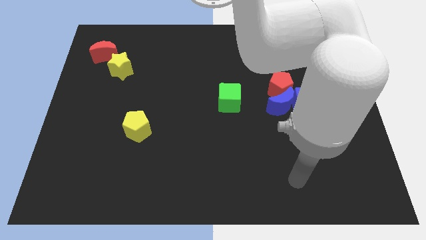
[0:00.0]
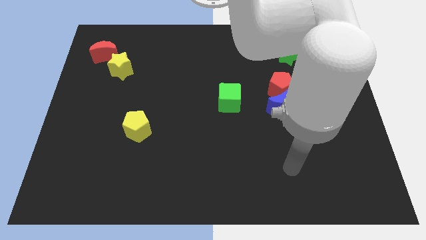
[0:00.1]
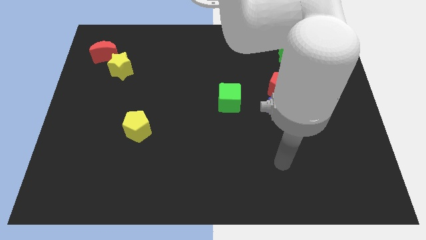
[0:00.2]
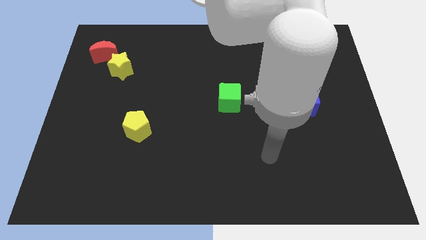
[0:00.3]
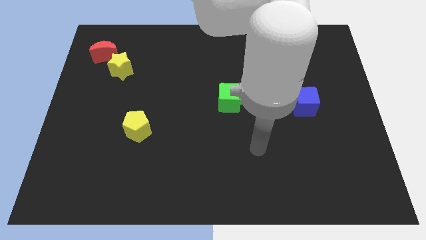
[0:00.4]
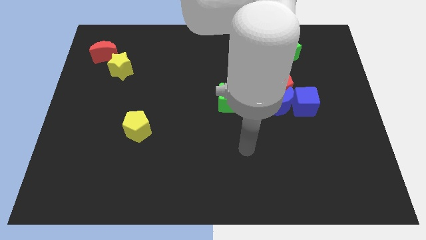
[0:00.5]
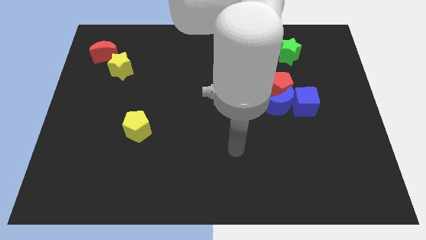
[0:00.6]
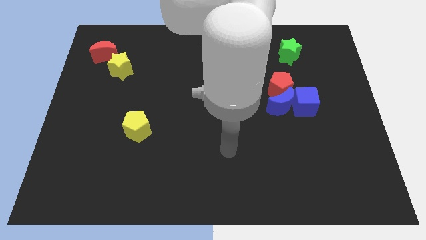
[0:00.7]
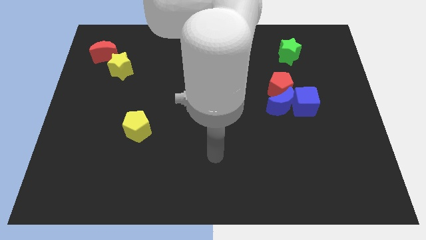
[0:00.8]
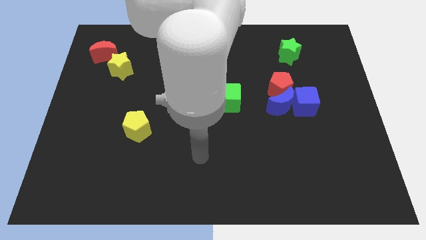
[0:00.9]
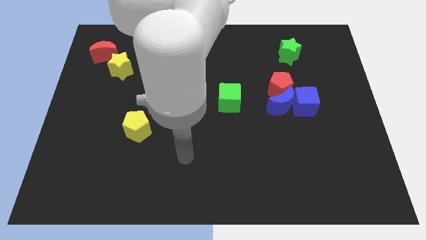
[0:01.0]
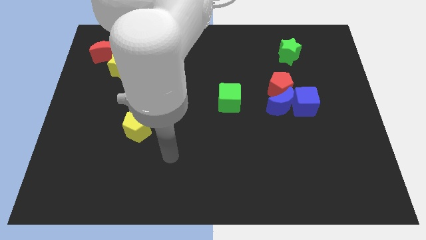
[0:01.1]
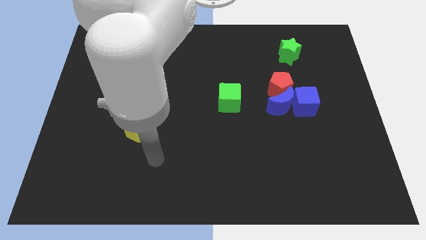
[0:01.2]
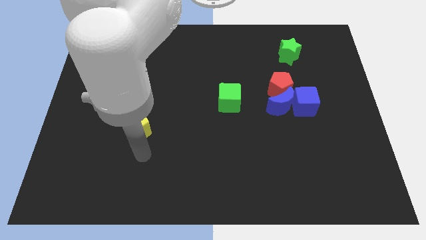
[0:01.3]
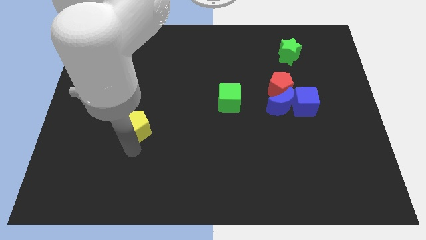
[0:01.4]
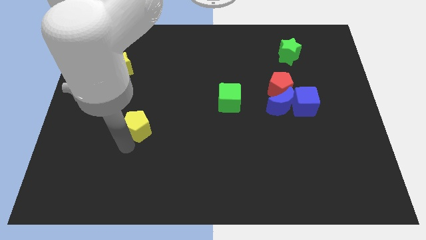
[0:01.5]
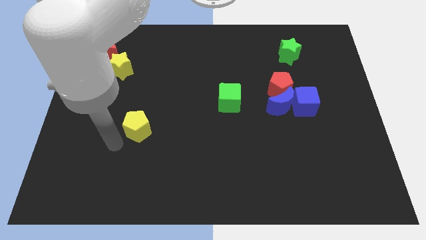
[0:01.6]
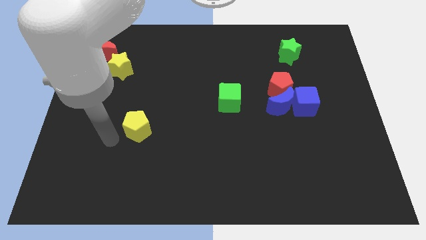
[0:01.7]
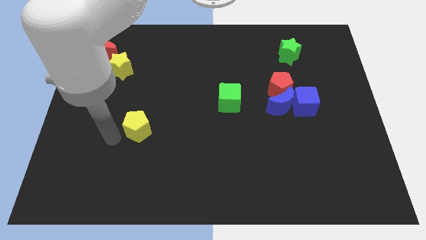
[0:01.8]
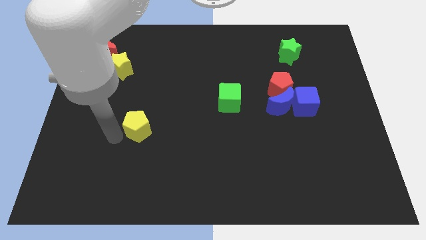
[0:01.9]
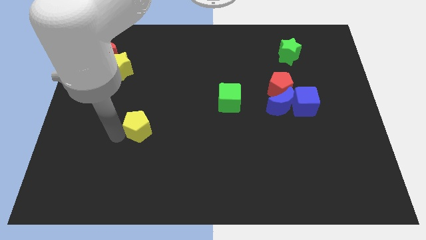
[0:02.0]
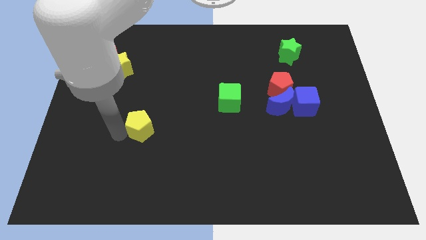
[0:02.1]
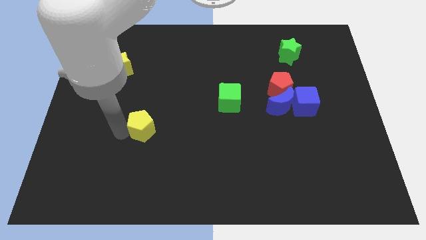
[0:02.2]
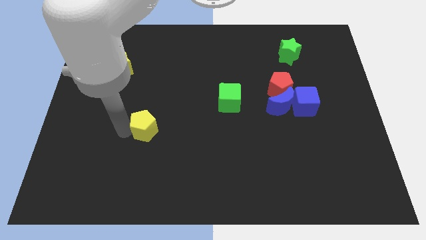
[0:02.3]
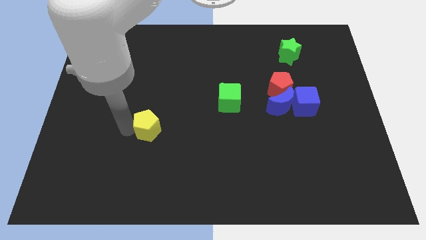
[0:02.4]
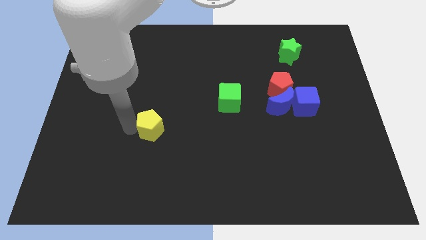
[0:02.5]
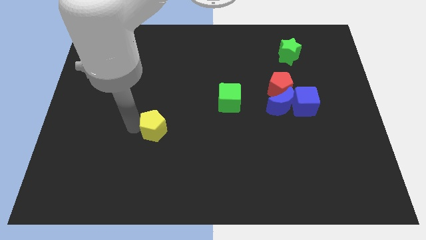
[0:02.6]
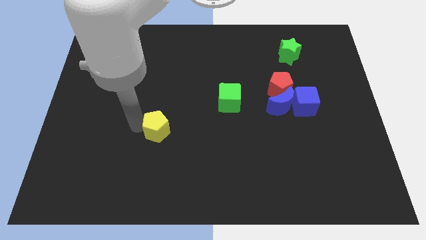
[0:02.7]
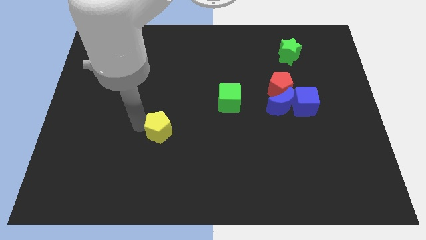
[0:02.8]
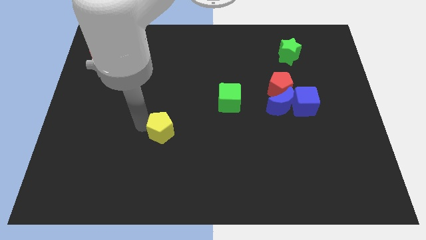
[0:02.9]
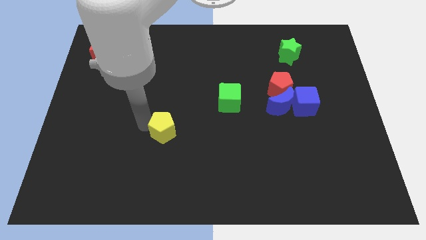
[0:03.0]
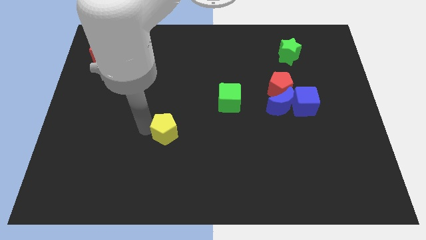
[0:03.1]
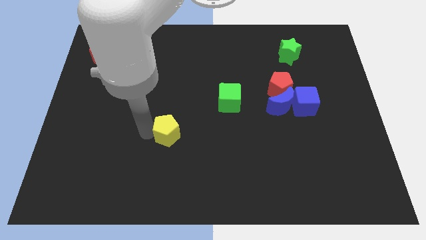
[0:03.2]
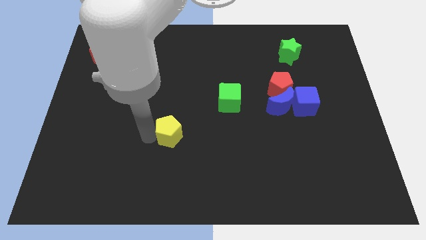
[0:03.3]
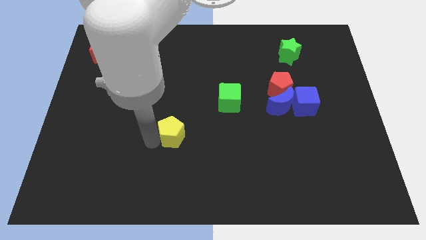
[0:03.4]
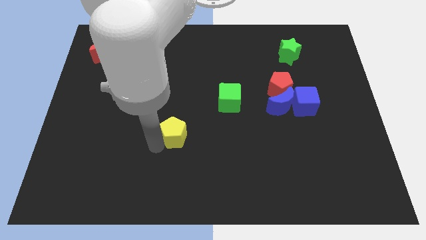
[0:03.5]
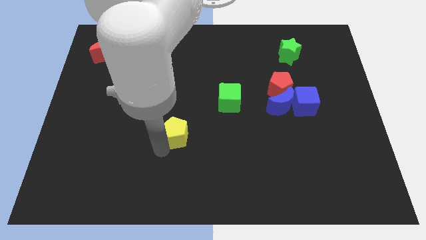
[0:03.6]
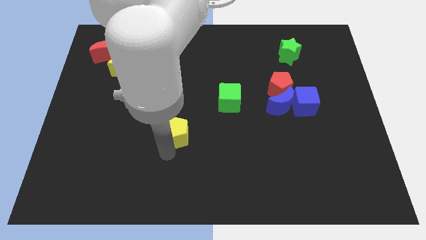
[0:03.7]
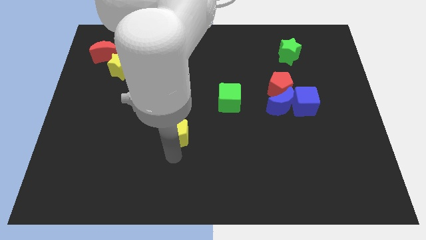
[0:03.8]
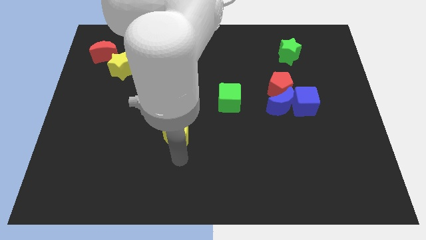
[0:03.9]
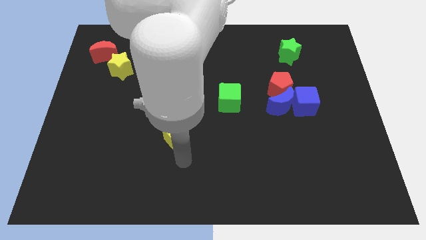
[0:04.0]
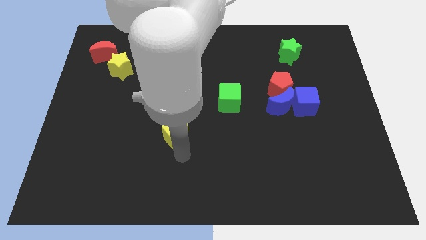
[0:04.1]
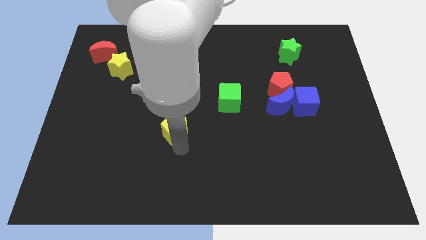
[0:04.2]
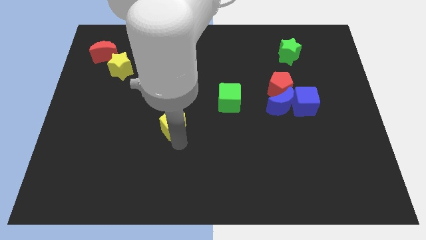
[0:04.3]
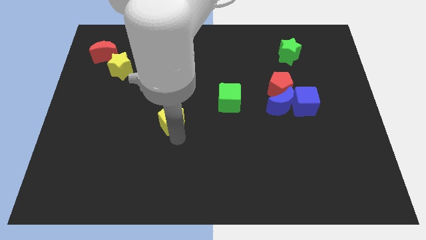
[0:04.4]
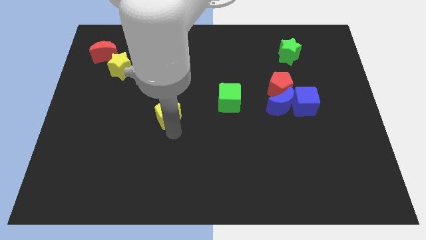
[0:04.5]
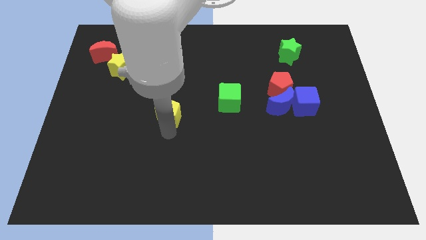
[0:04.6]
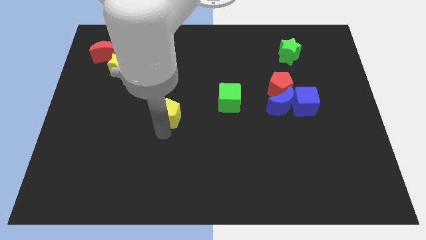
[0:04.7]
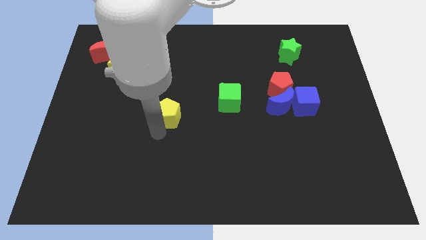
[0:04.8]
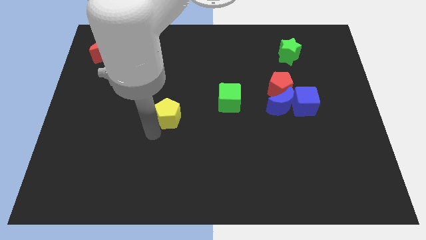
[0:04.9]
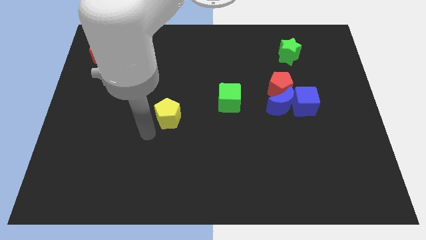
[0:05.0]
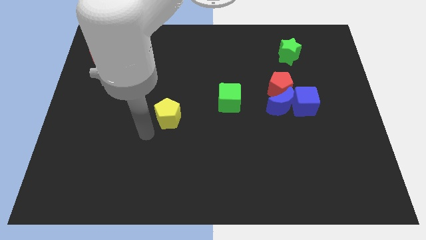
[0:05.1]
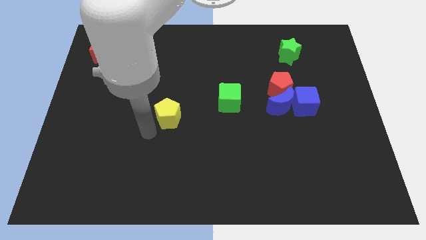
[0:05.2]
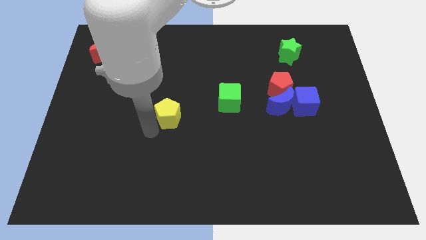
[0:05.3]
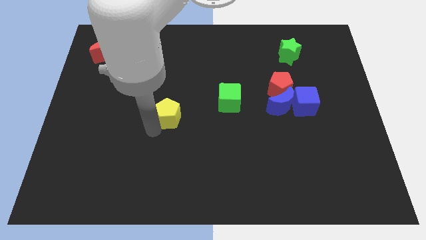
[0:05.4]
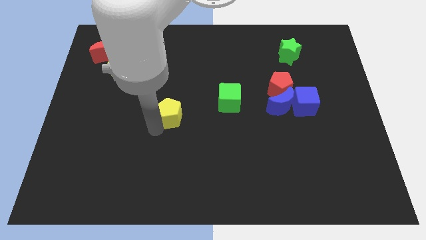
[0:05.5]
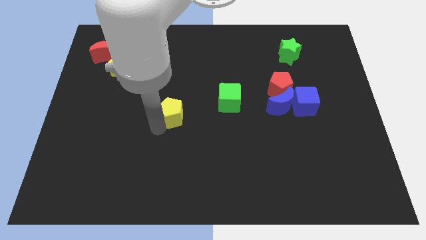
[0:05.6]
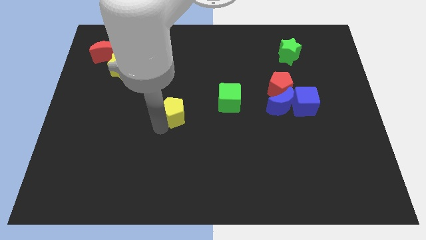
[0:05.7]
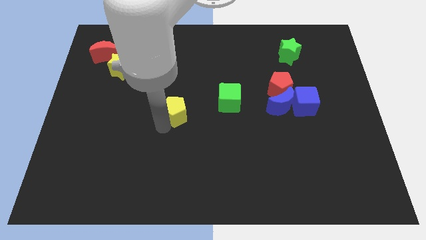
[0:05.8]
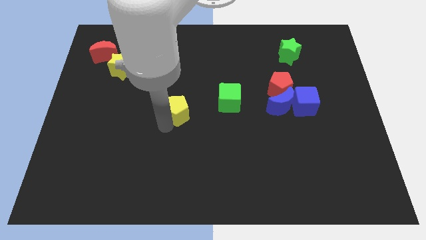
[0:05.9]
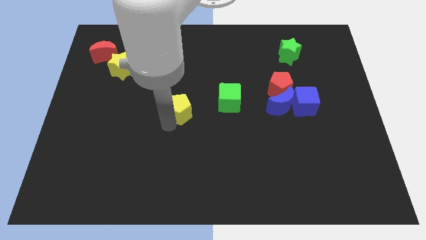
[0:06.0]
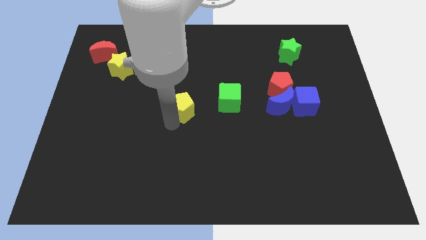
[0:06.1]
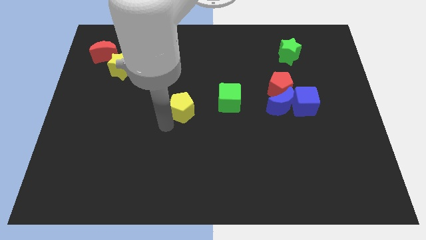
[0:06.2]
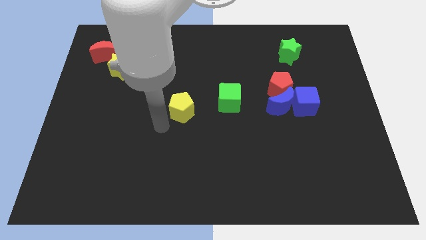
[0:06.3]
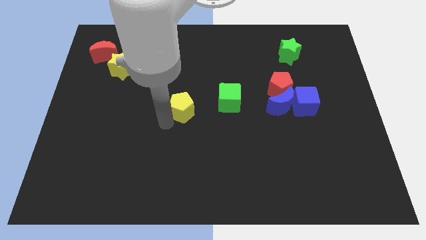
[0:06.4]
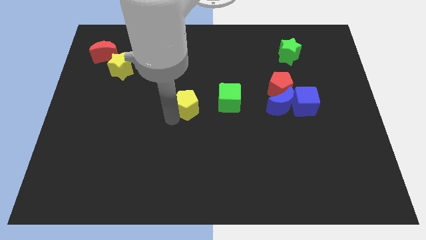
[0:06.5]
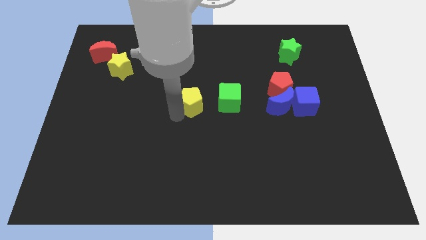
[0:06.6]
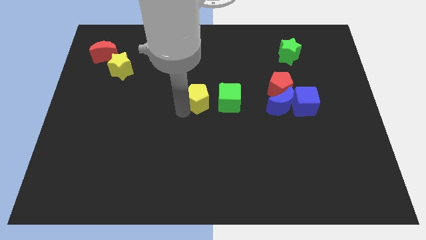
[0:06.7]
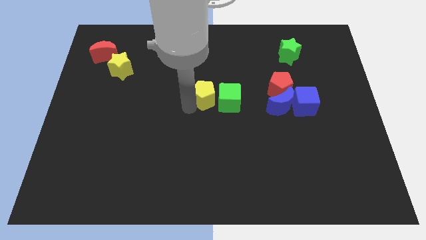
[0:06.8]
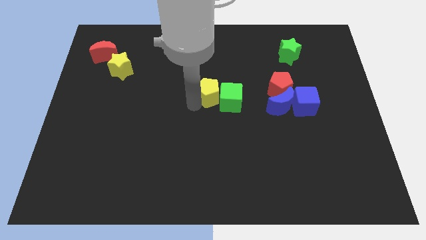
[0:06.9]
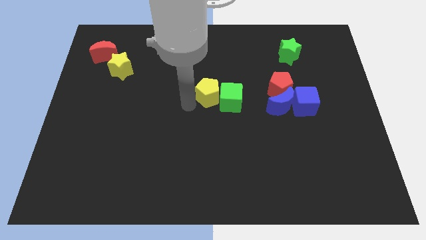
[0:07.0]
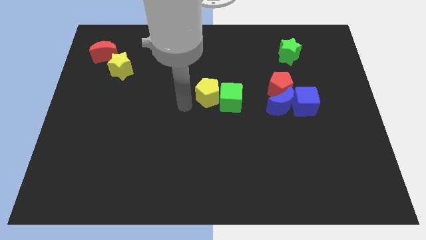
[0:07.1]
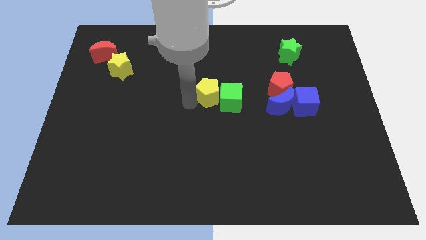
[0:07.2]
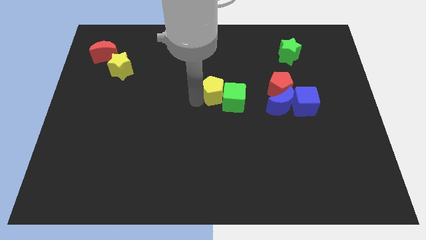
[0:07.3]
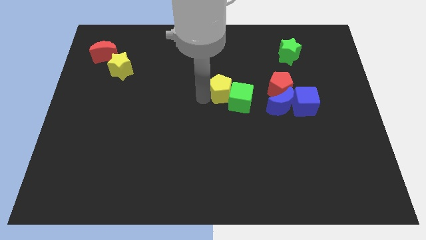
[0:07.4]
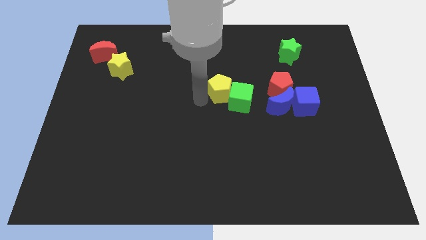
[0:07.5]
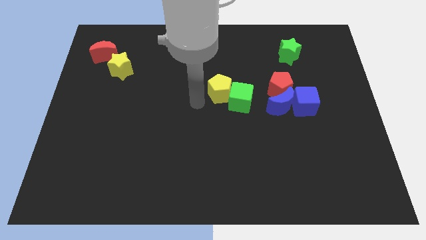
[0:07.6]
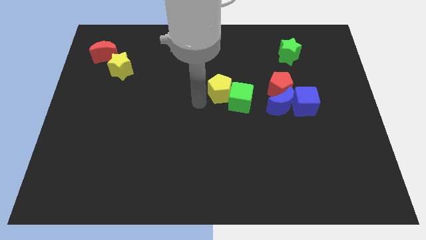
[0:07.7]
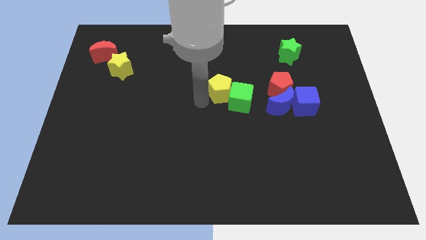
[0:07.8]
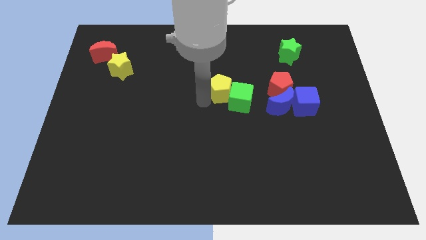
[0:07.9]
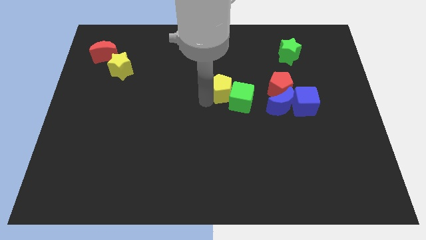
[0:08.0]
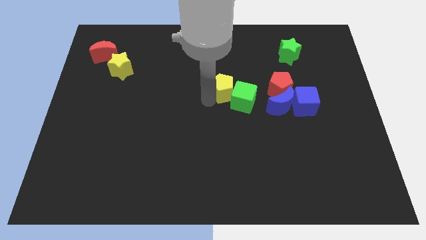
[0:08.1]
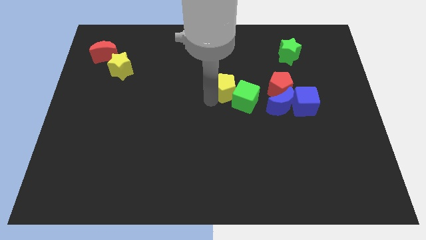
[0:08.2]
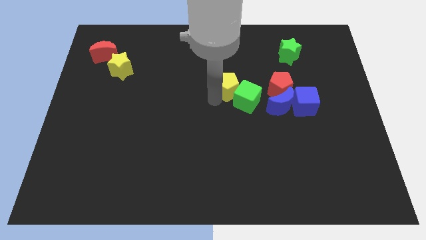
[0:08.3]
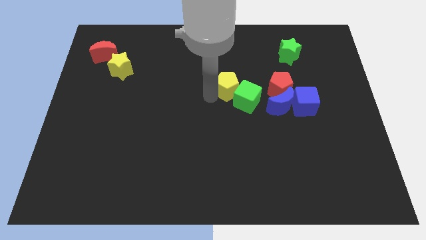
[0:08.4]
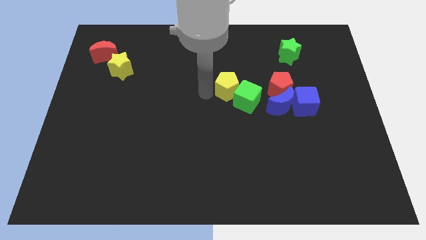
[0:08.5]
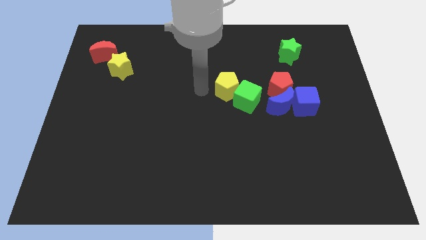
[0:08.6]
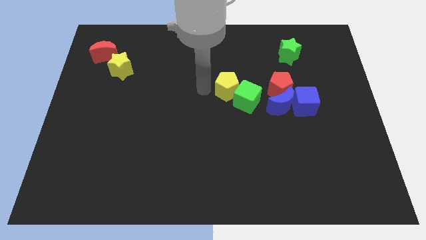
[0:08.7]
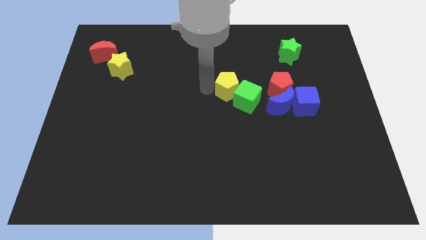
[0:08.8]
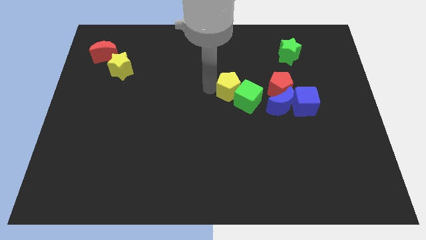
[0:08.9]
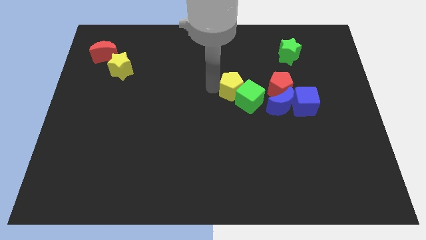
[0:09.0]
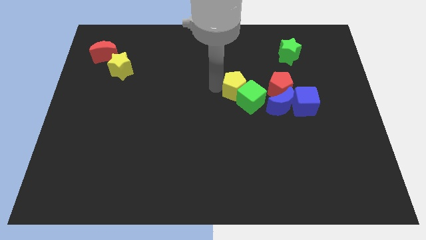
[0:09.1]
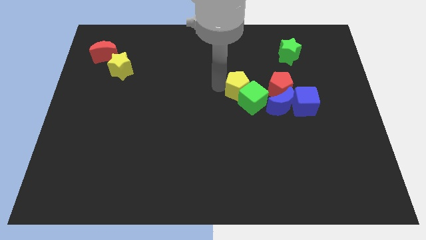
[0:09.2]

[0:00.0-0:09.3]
push the yellow pentagon to the top left side of the blue moon
